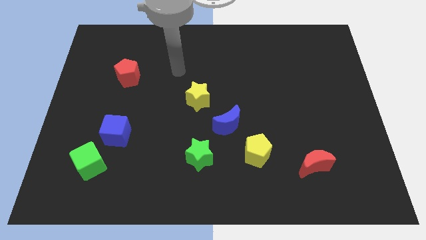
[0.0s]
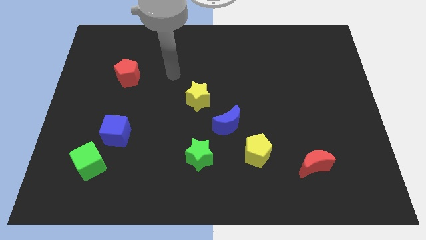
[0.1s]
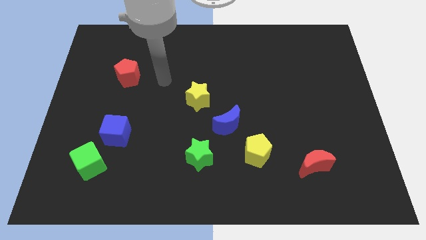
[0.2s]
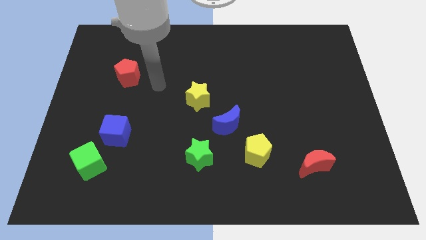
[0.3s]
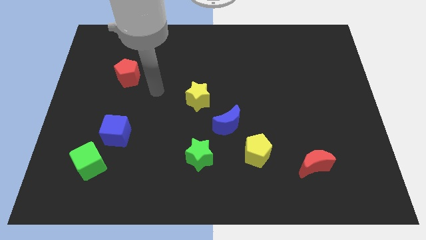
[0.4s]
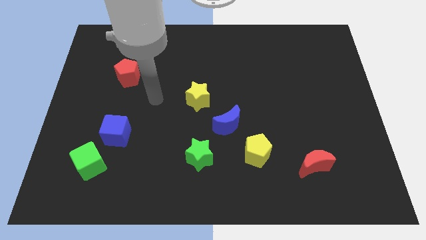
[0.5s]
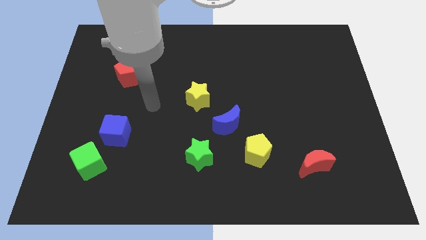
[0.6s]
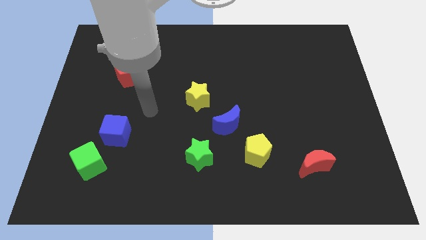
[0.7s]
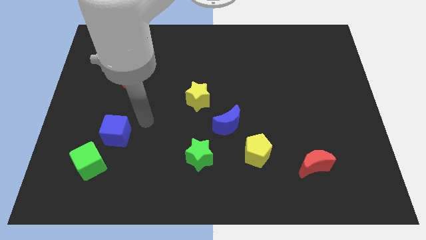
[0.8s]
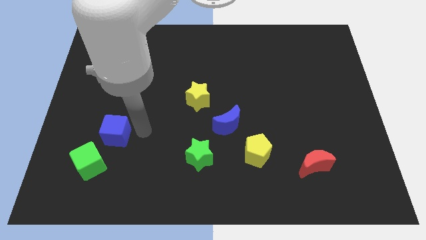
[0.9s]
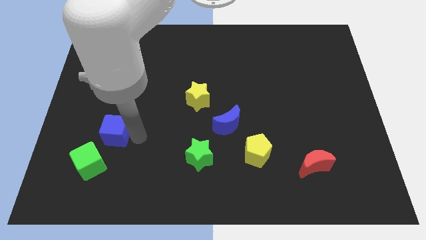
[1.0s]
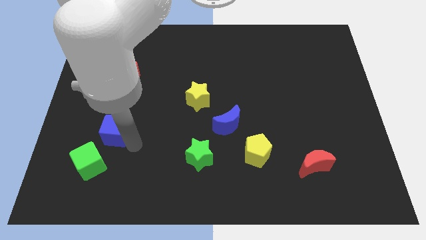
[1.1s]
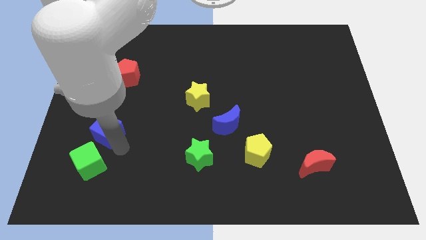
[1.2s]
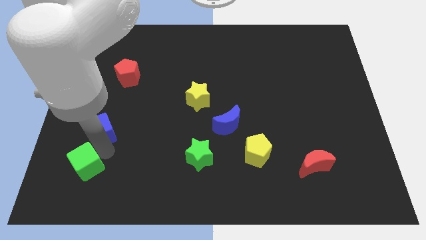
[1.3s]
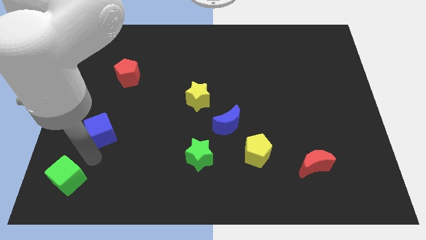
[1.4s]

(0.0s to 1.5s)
move the blue cube away from the green cube

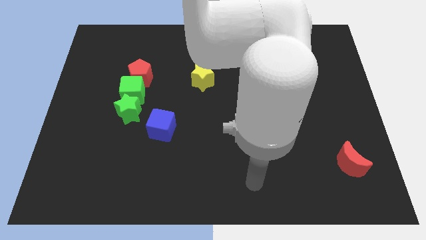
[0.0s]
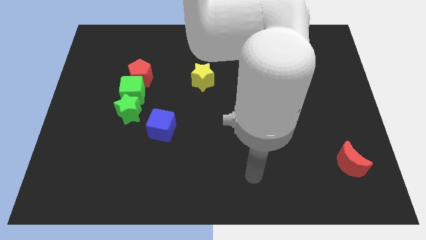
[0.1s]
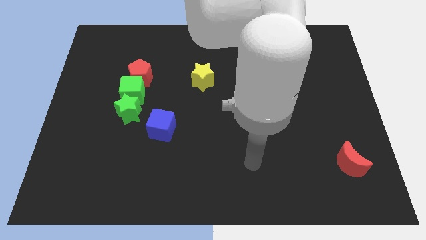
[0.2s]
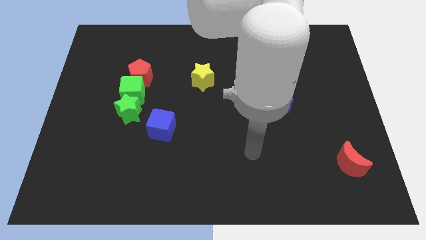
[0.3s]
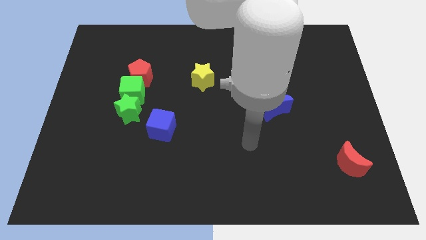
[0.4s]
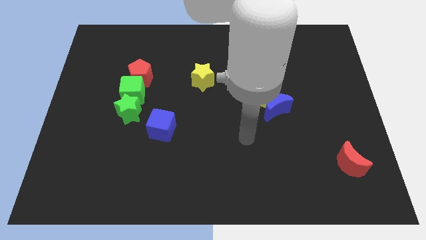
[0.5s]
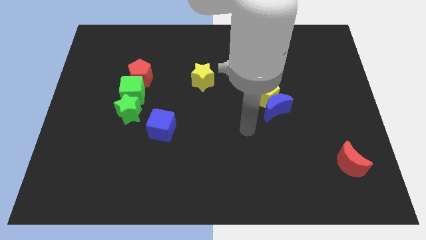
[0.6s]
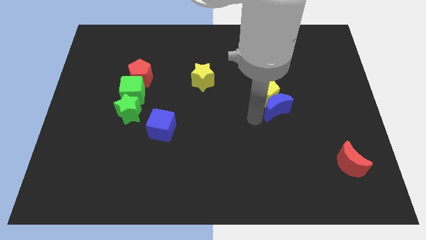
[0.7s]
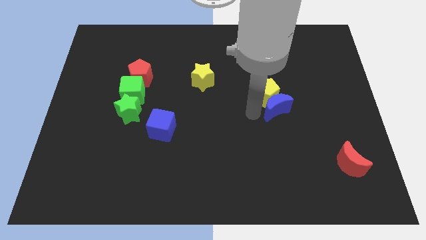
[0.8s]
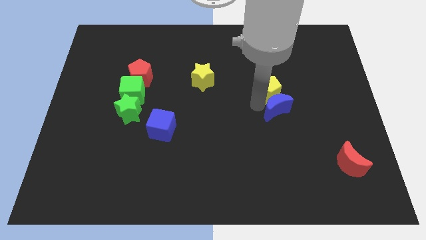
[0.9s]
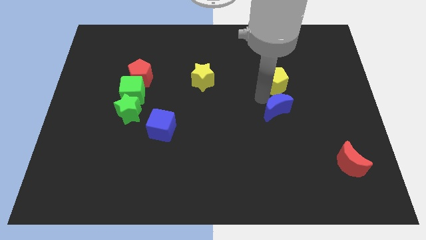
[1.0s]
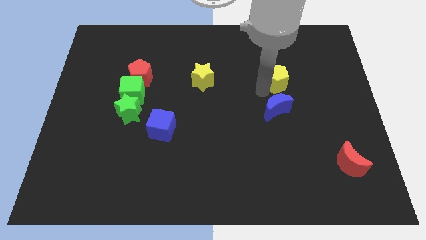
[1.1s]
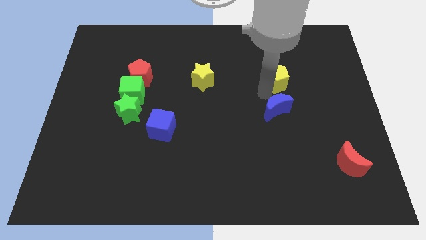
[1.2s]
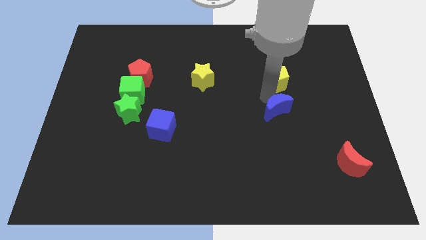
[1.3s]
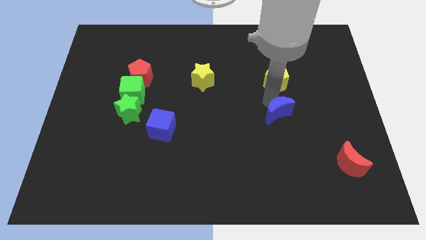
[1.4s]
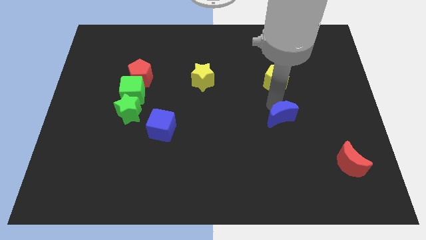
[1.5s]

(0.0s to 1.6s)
pull the blue moon apart from the yellow pentagon

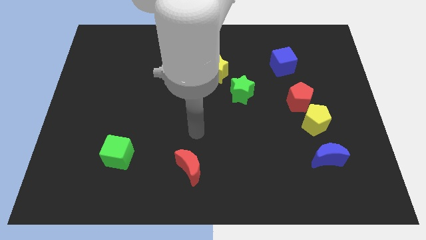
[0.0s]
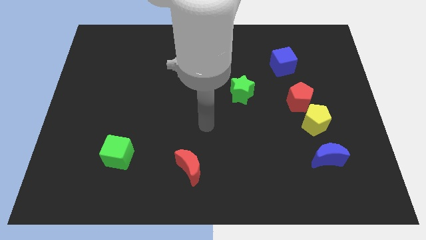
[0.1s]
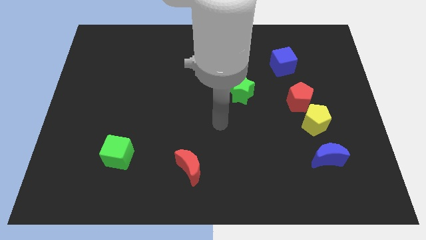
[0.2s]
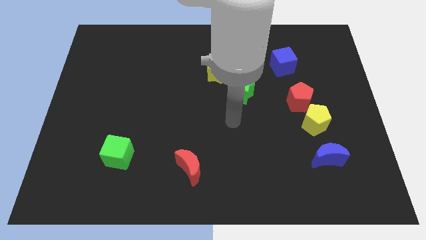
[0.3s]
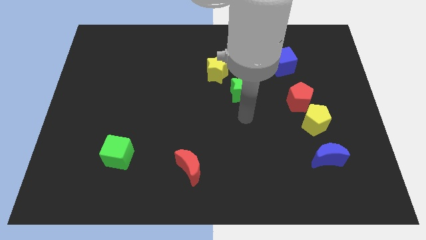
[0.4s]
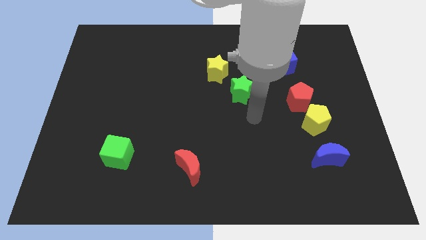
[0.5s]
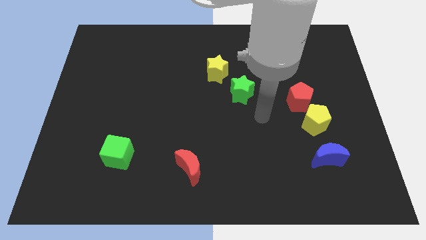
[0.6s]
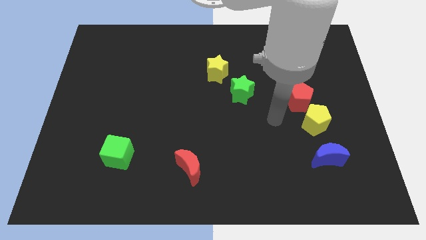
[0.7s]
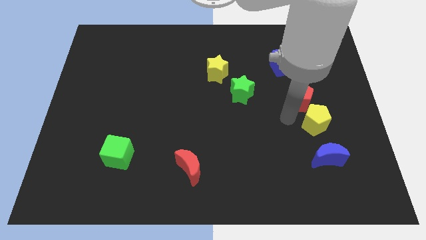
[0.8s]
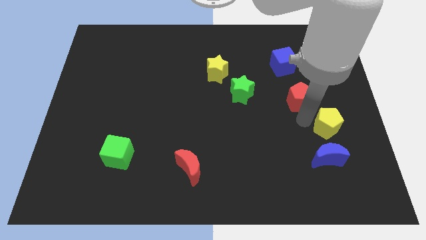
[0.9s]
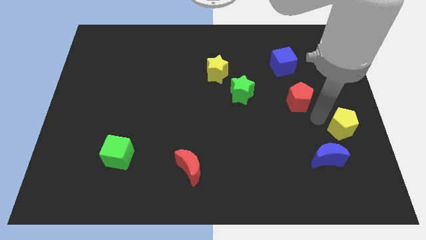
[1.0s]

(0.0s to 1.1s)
separate the red pentagon from the yellow pentagon

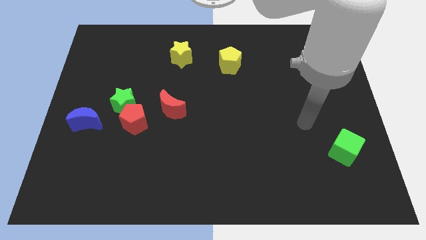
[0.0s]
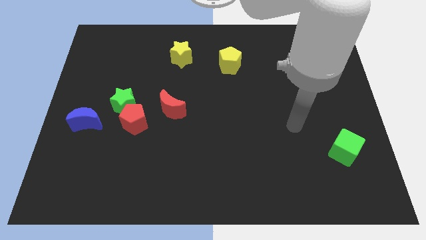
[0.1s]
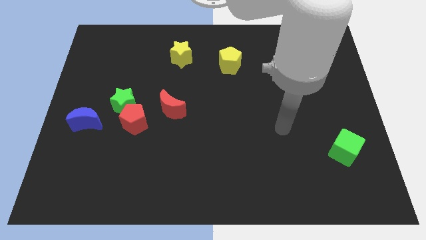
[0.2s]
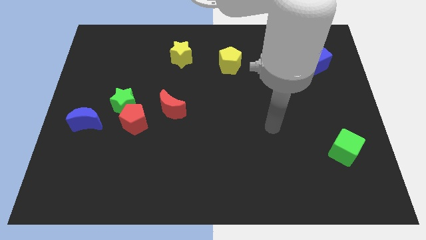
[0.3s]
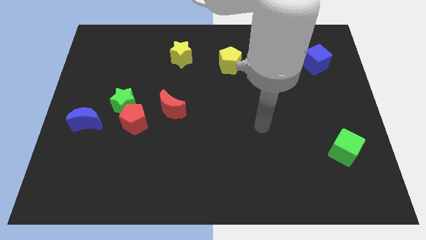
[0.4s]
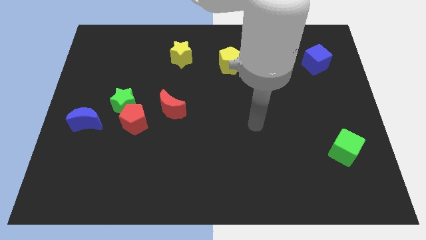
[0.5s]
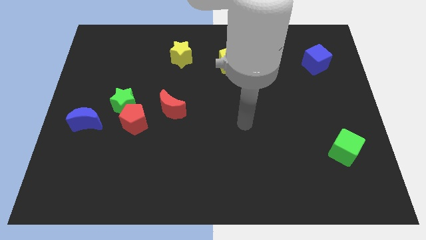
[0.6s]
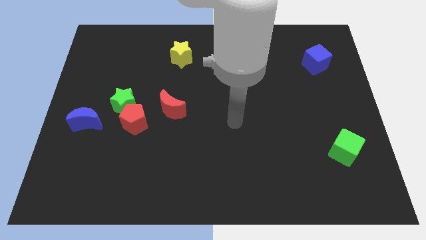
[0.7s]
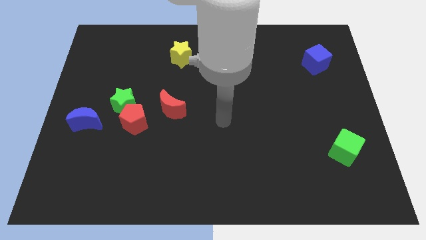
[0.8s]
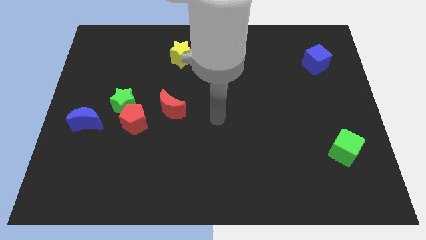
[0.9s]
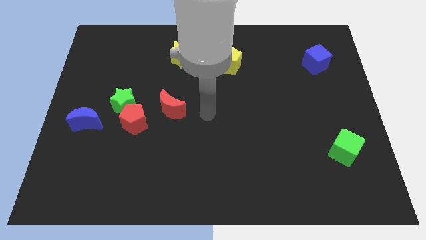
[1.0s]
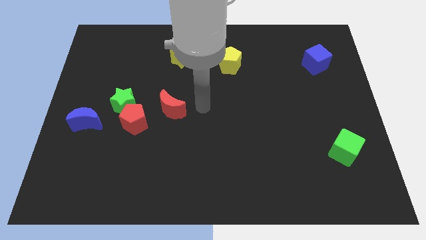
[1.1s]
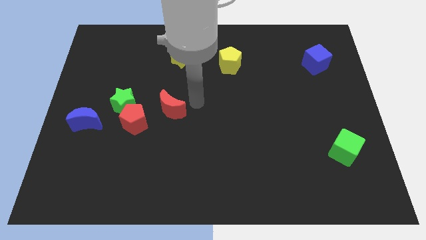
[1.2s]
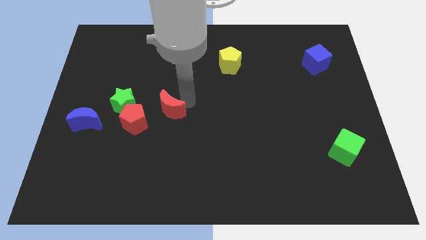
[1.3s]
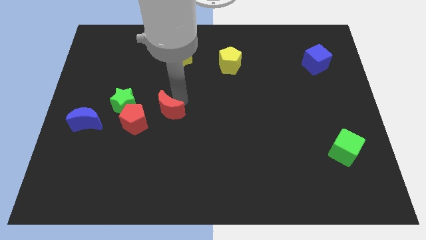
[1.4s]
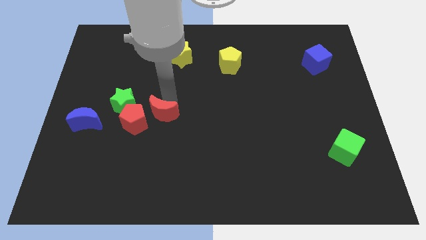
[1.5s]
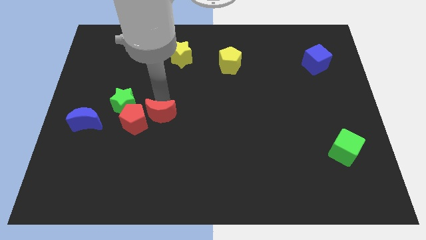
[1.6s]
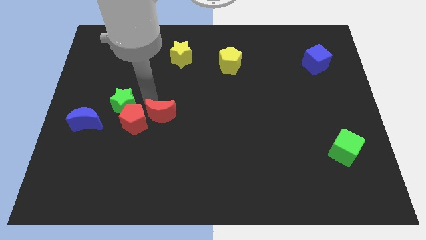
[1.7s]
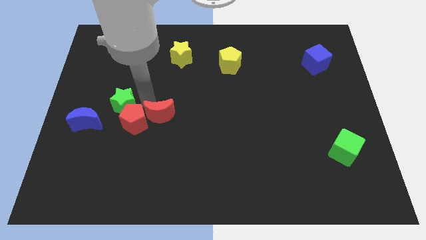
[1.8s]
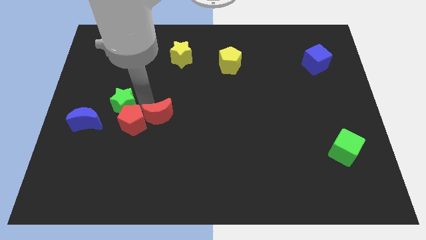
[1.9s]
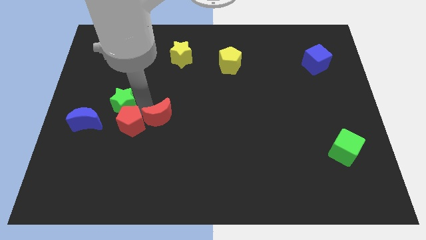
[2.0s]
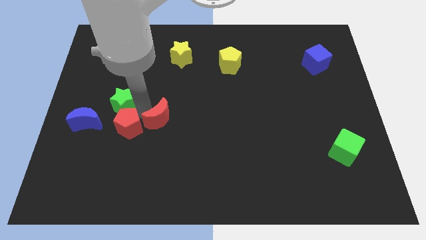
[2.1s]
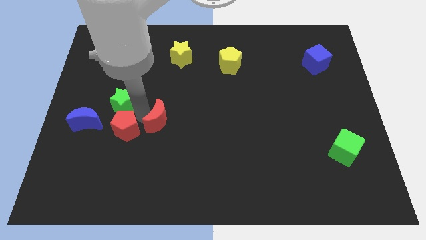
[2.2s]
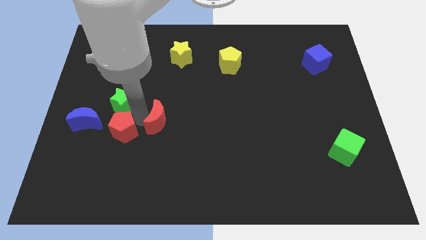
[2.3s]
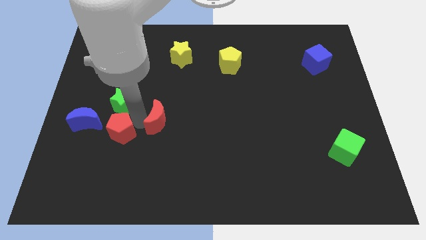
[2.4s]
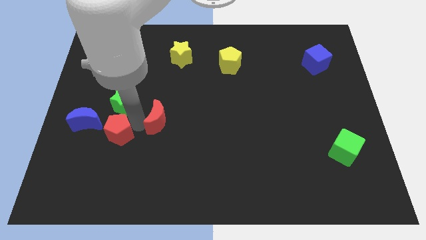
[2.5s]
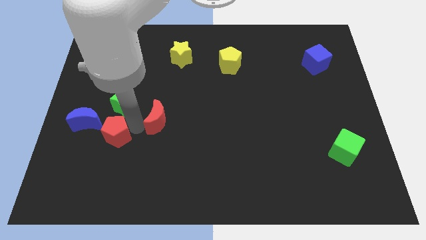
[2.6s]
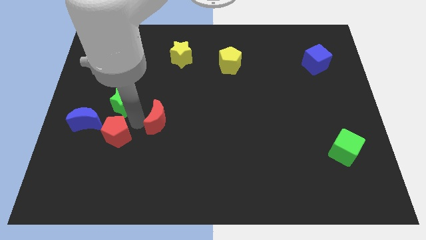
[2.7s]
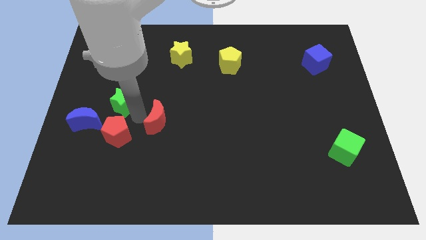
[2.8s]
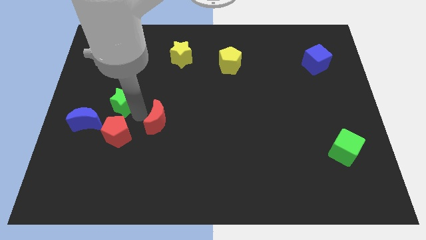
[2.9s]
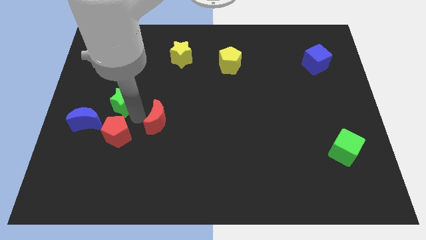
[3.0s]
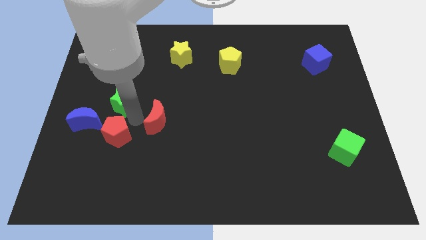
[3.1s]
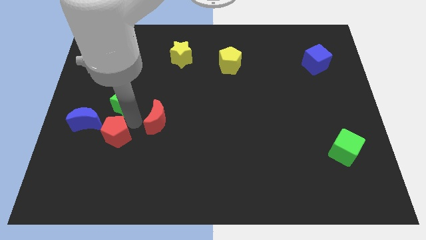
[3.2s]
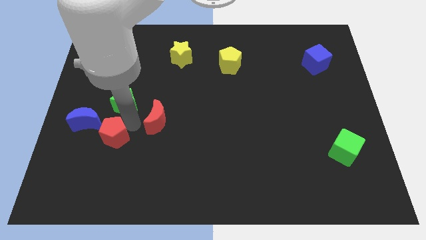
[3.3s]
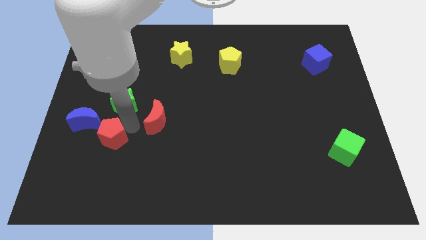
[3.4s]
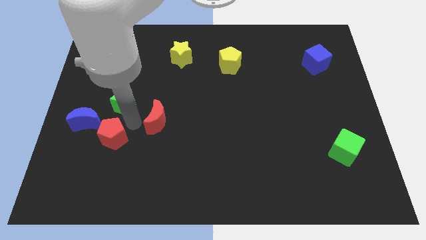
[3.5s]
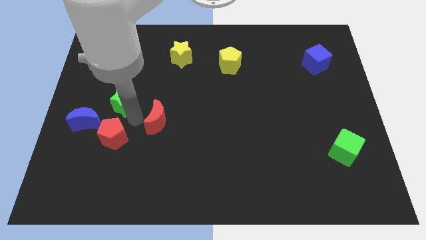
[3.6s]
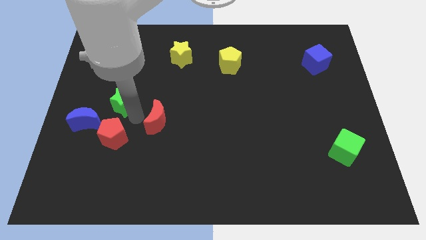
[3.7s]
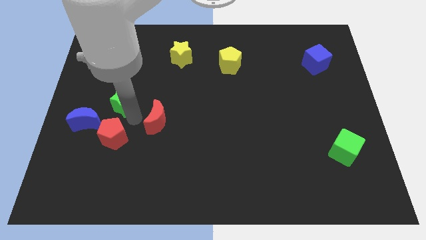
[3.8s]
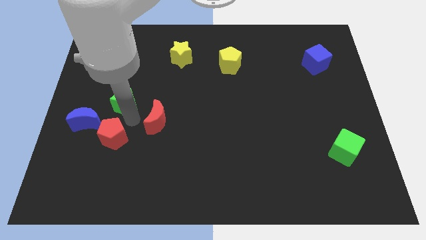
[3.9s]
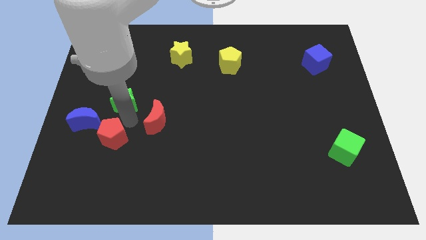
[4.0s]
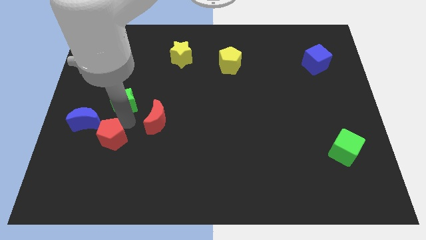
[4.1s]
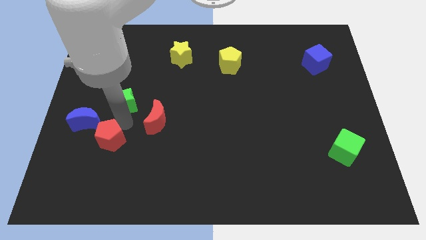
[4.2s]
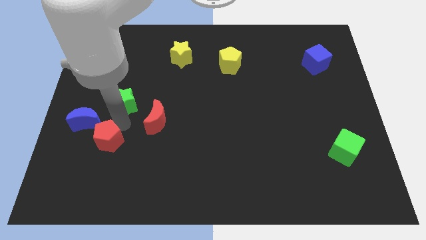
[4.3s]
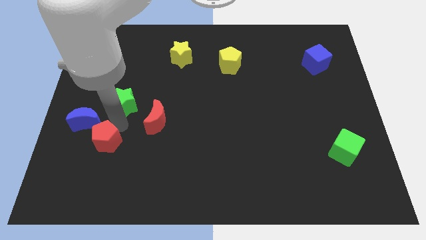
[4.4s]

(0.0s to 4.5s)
move the red pentagon away from the green star and red moon

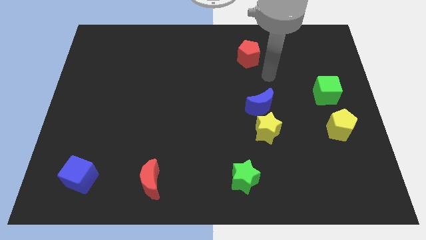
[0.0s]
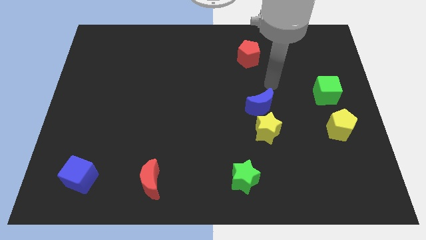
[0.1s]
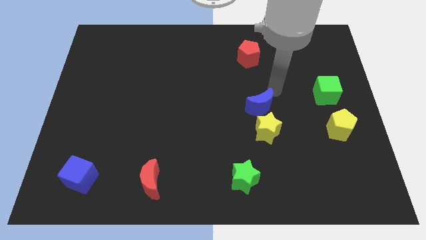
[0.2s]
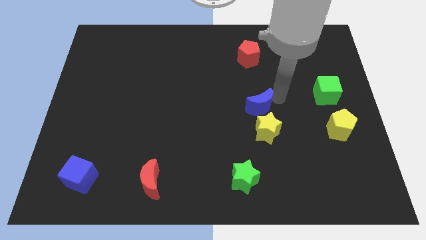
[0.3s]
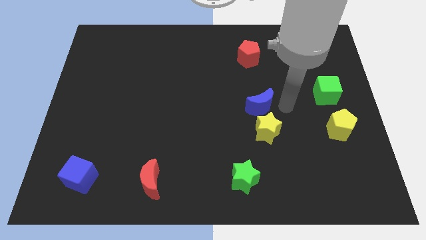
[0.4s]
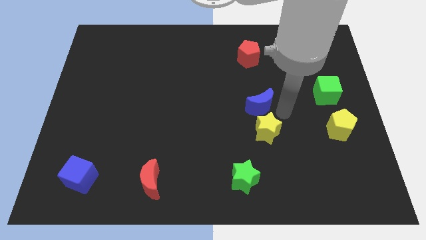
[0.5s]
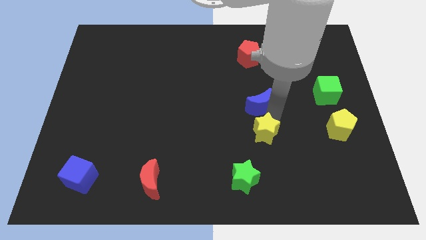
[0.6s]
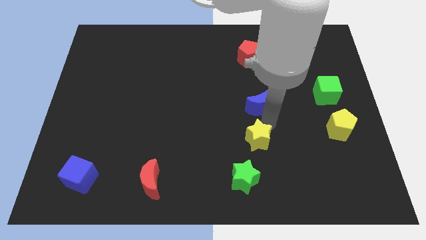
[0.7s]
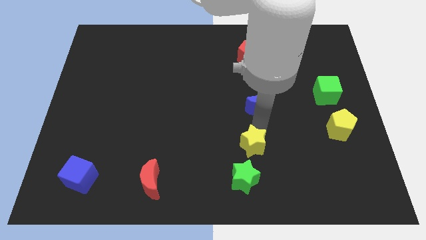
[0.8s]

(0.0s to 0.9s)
move the blue moon away from the yellow star
